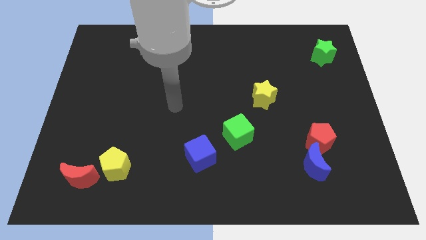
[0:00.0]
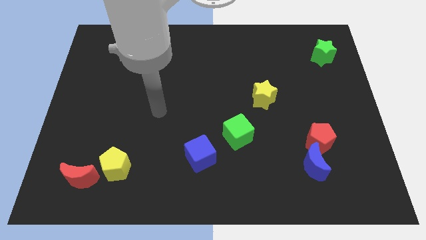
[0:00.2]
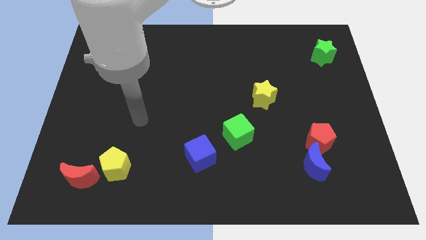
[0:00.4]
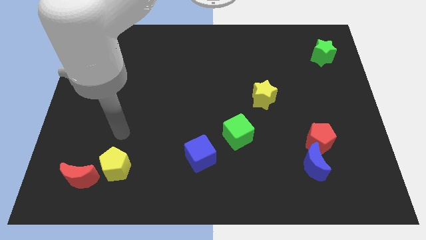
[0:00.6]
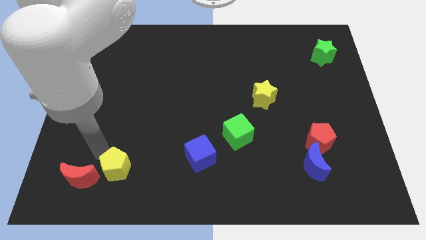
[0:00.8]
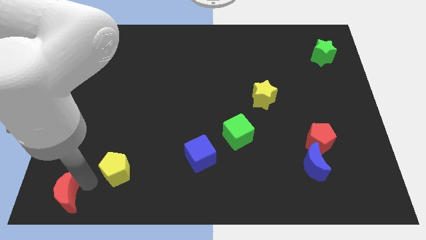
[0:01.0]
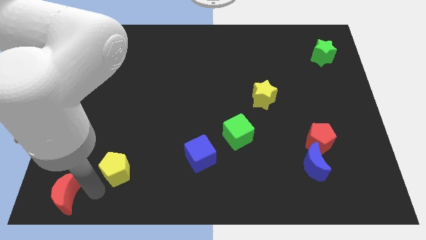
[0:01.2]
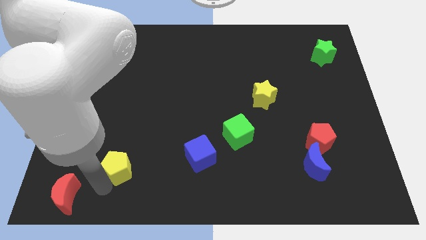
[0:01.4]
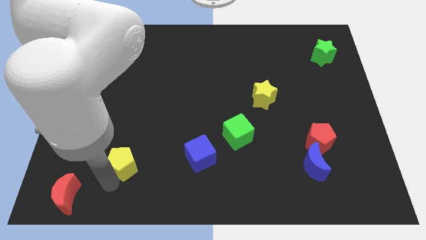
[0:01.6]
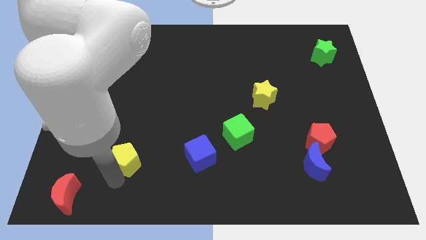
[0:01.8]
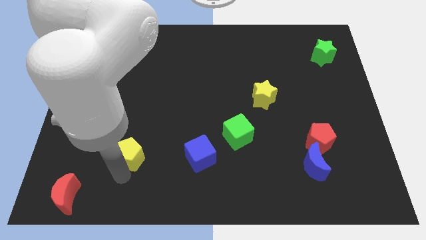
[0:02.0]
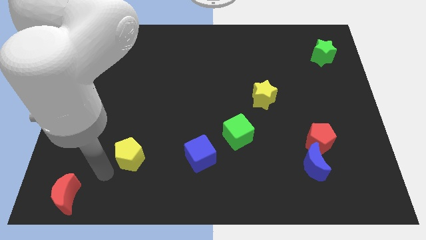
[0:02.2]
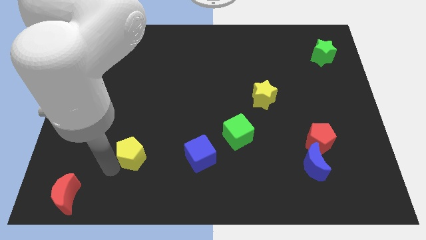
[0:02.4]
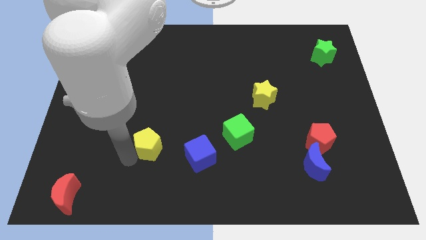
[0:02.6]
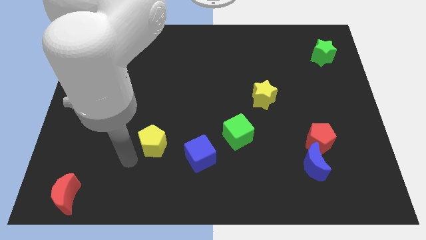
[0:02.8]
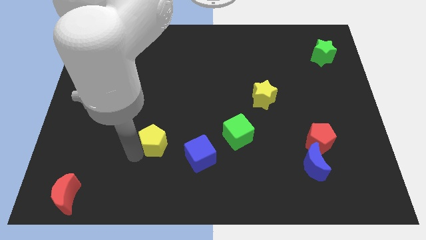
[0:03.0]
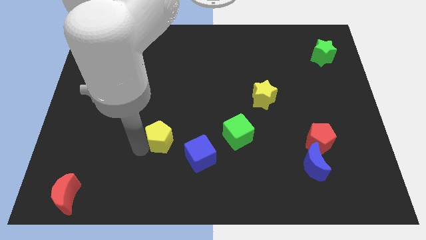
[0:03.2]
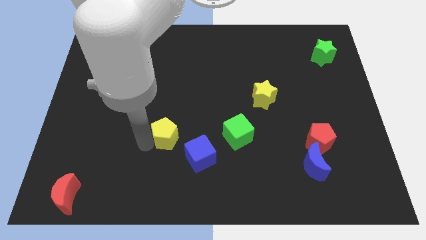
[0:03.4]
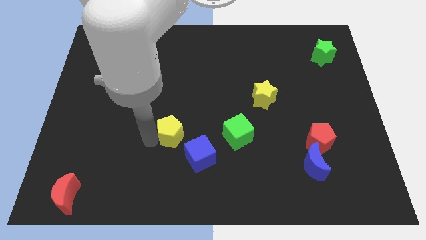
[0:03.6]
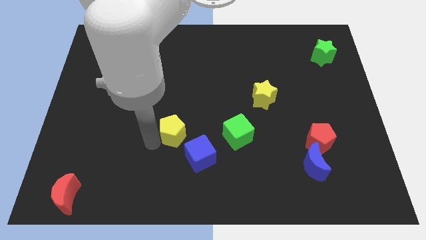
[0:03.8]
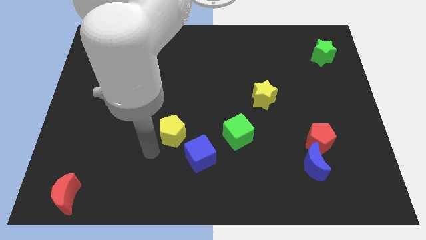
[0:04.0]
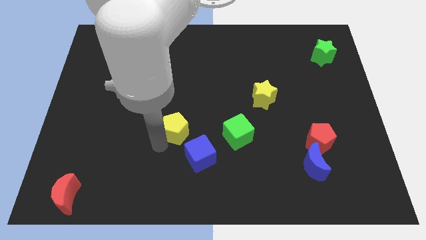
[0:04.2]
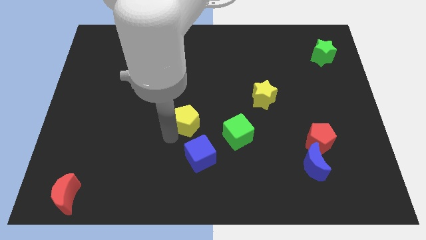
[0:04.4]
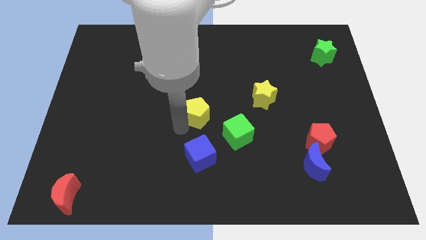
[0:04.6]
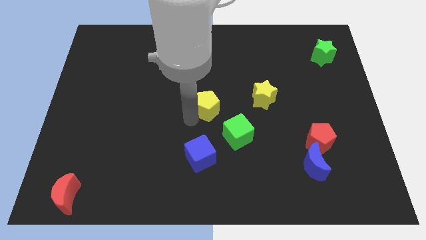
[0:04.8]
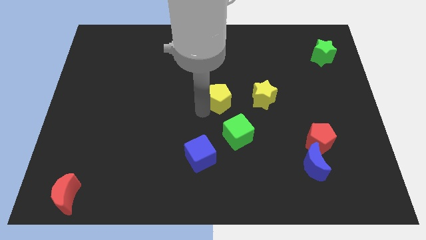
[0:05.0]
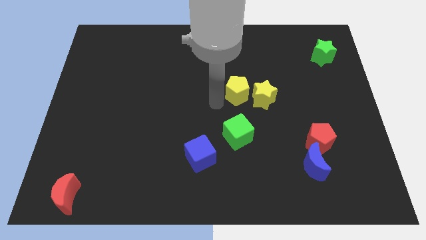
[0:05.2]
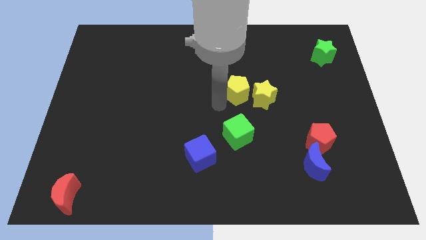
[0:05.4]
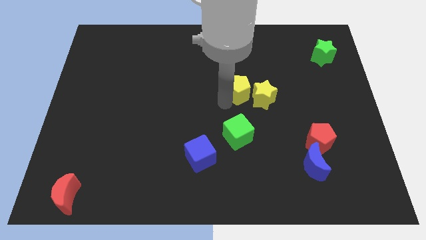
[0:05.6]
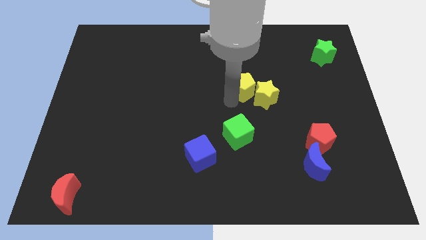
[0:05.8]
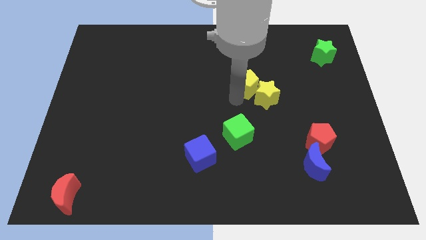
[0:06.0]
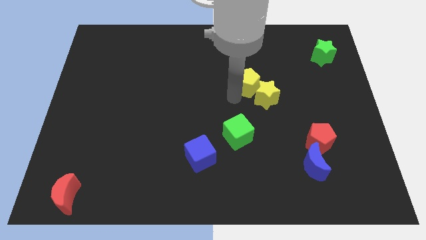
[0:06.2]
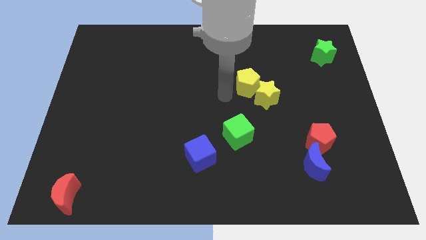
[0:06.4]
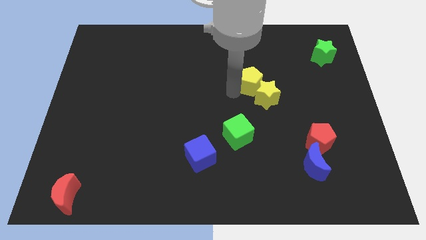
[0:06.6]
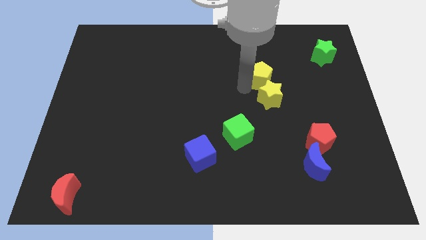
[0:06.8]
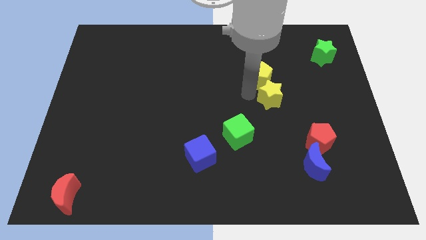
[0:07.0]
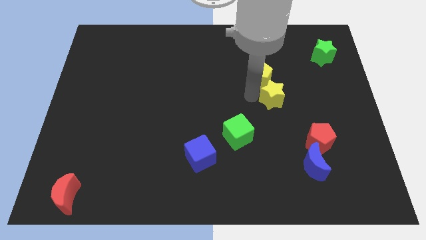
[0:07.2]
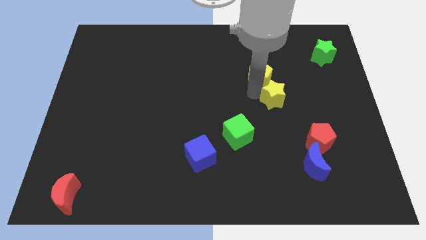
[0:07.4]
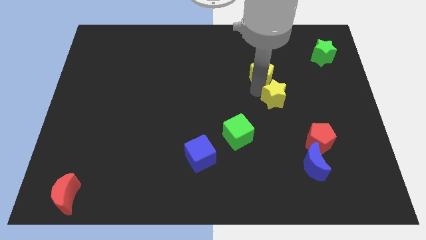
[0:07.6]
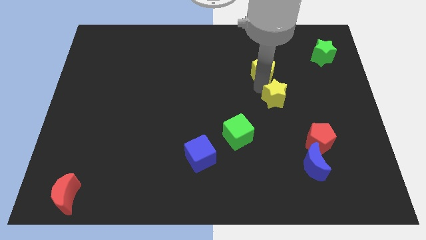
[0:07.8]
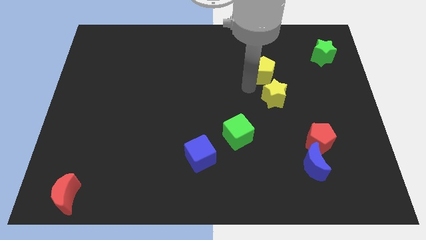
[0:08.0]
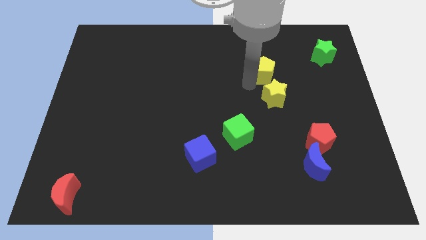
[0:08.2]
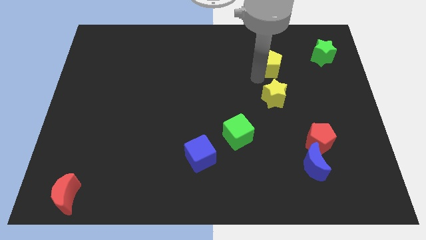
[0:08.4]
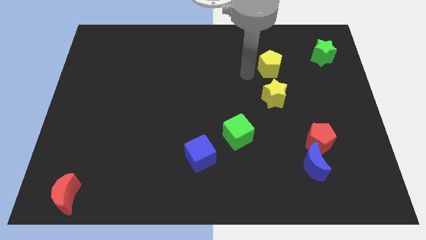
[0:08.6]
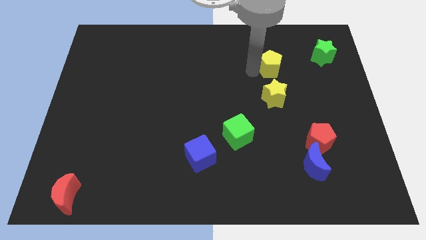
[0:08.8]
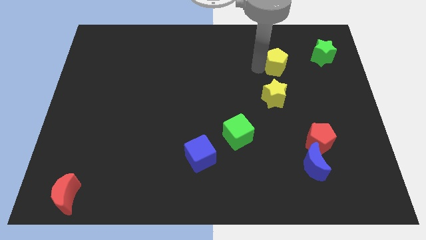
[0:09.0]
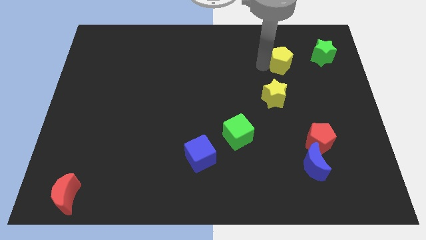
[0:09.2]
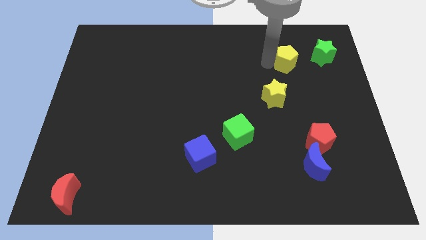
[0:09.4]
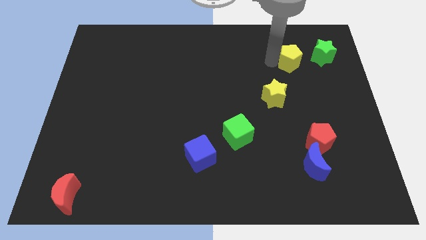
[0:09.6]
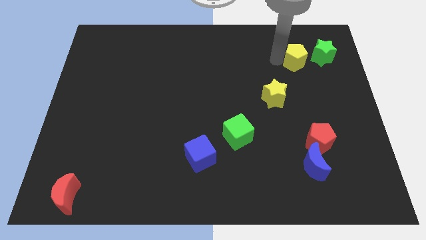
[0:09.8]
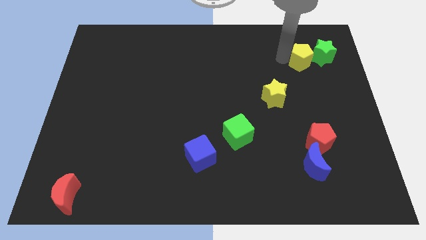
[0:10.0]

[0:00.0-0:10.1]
put the yellow pentagon next to the green star

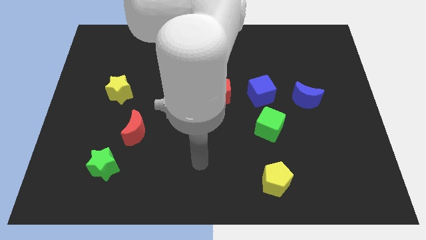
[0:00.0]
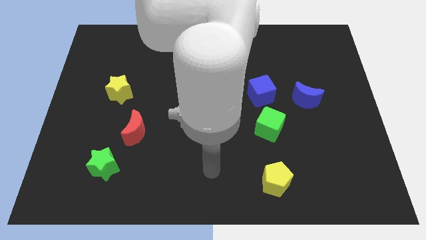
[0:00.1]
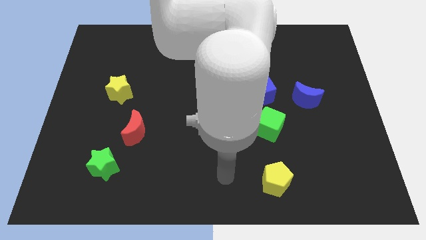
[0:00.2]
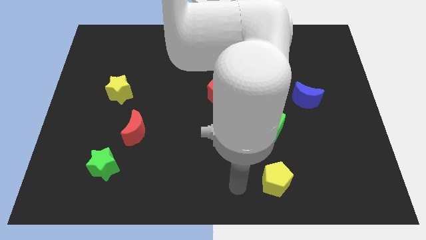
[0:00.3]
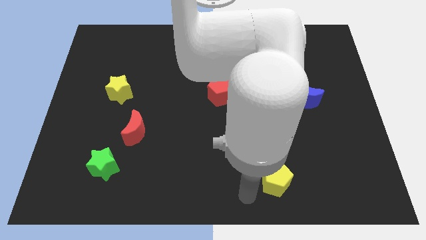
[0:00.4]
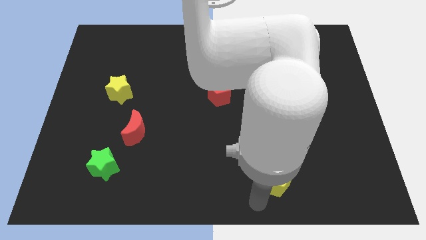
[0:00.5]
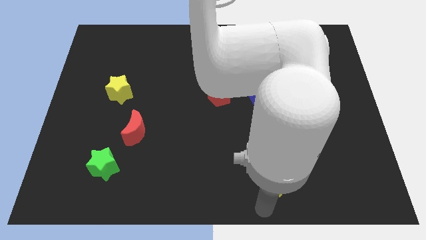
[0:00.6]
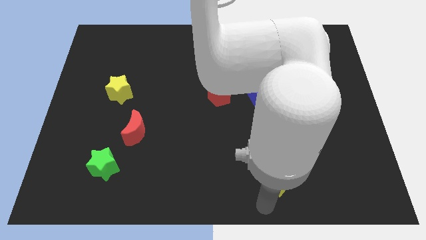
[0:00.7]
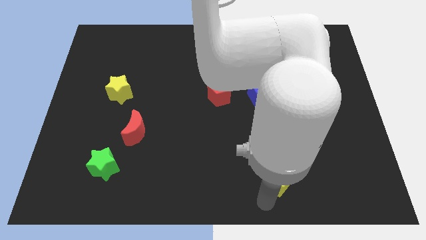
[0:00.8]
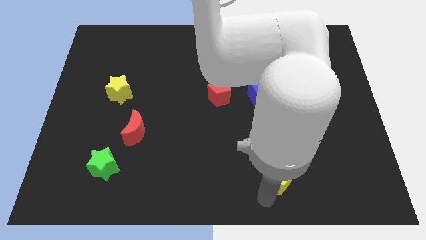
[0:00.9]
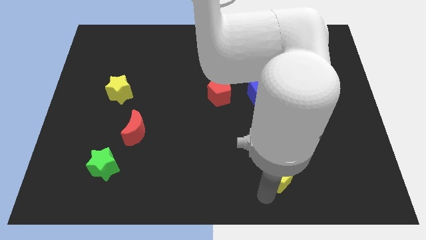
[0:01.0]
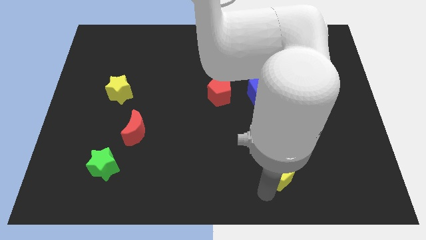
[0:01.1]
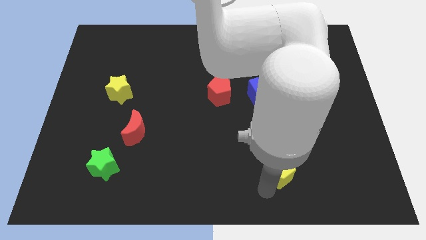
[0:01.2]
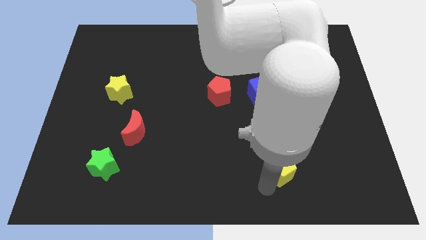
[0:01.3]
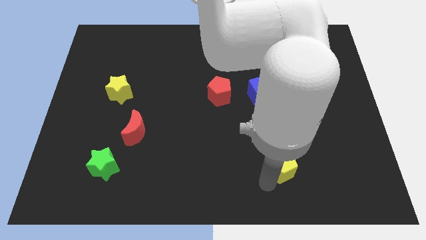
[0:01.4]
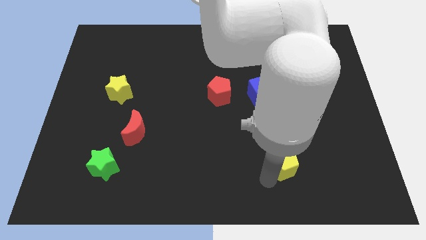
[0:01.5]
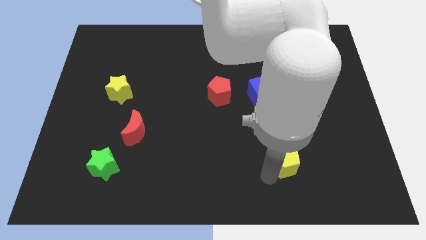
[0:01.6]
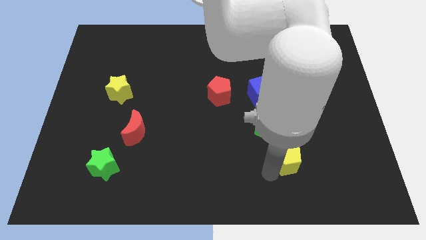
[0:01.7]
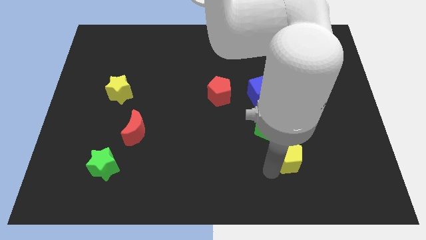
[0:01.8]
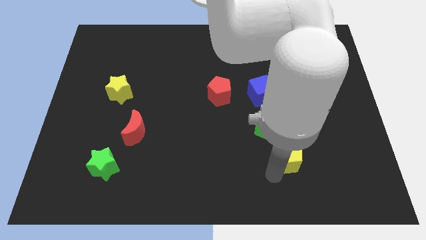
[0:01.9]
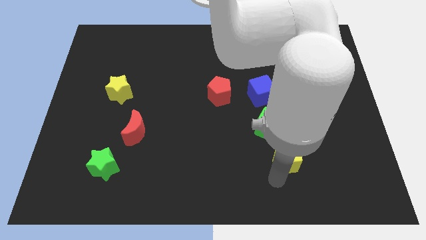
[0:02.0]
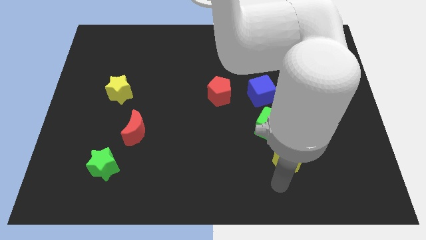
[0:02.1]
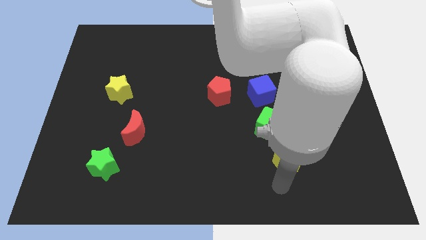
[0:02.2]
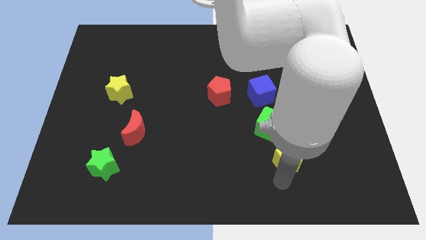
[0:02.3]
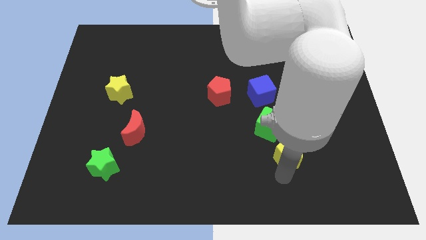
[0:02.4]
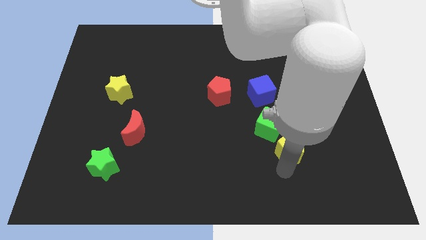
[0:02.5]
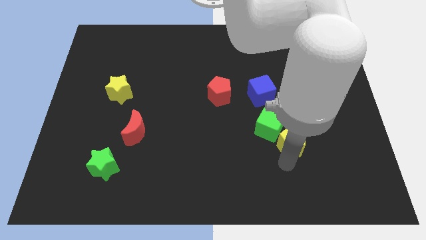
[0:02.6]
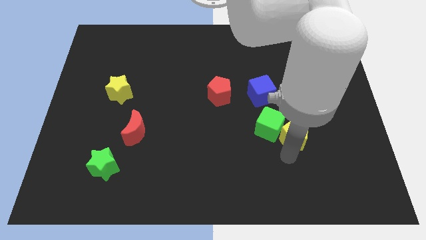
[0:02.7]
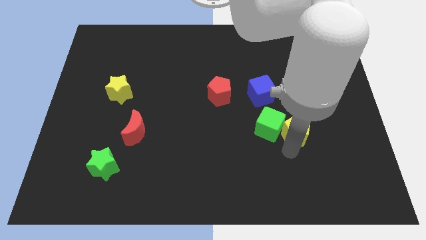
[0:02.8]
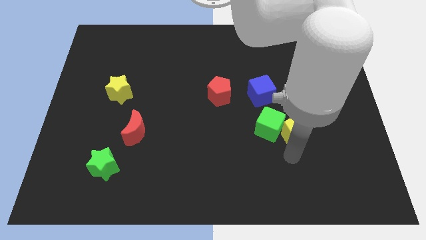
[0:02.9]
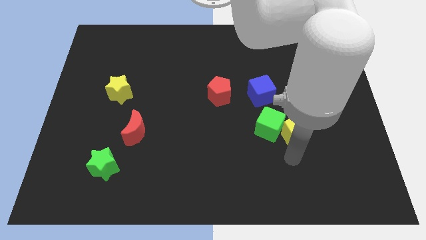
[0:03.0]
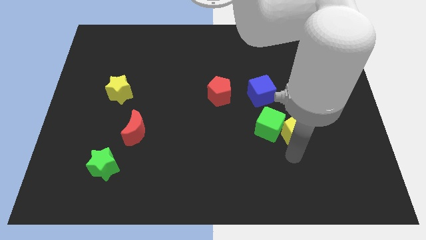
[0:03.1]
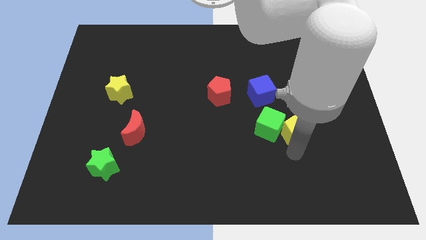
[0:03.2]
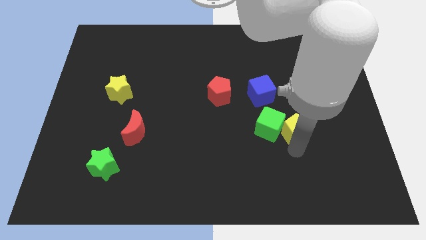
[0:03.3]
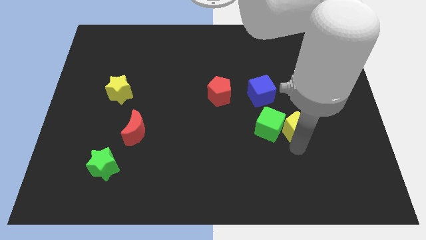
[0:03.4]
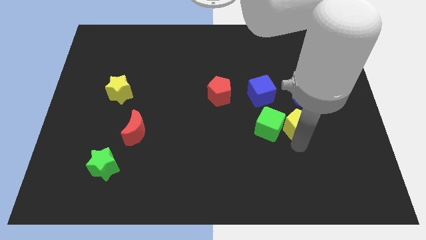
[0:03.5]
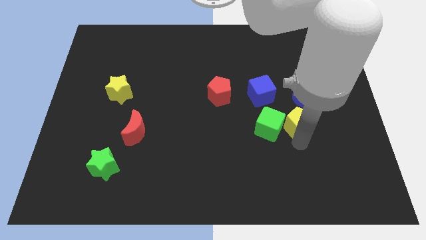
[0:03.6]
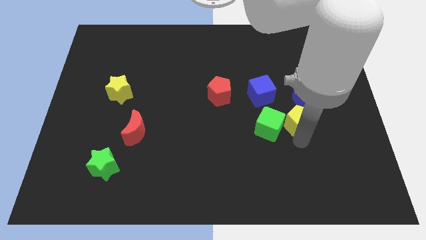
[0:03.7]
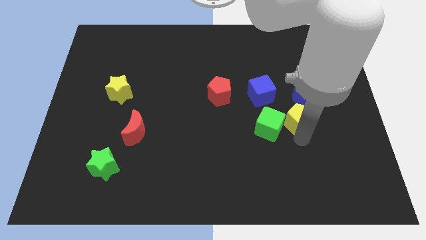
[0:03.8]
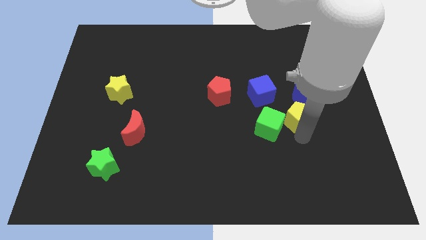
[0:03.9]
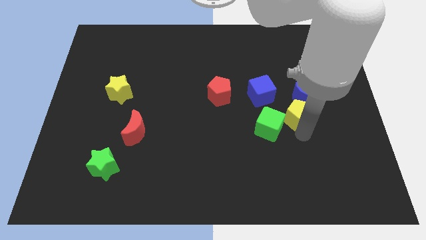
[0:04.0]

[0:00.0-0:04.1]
slide the yellow pentagon to the blue moon
